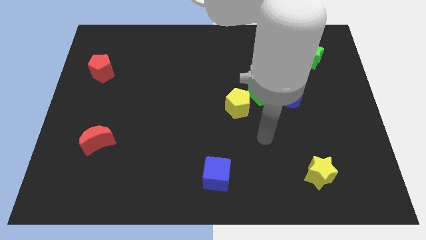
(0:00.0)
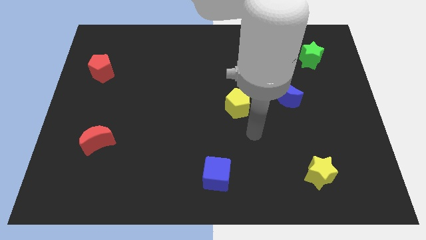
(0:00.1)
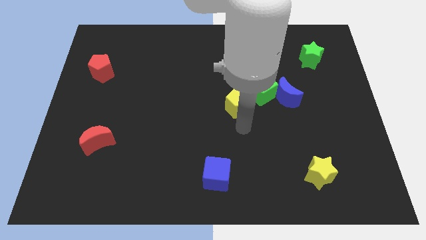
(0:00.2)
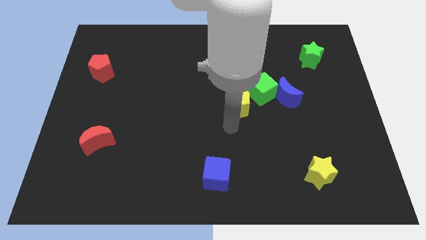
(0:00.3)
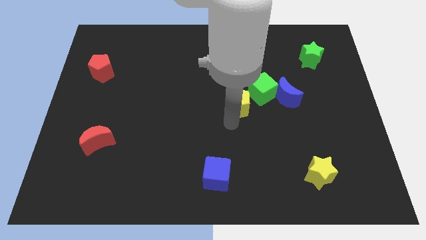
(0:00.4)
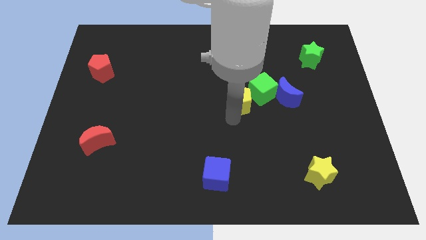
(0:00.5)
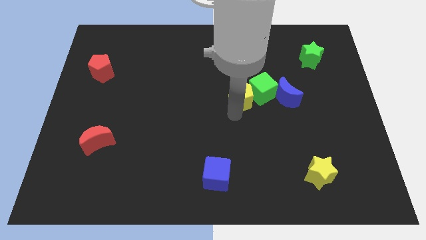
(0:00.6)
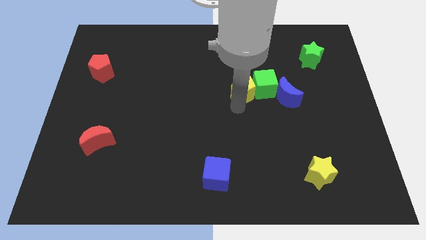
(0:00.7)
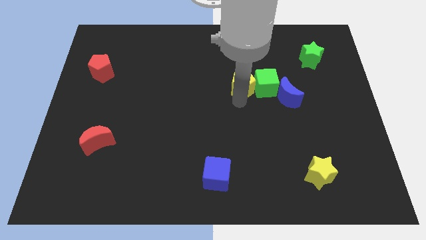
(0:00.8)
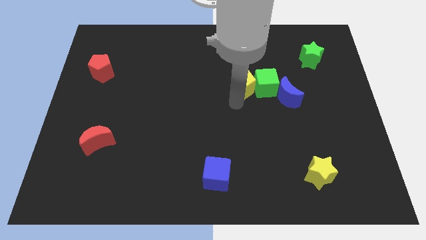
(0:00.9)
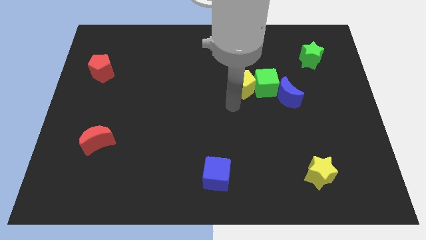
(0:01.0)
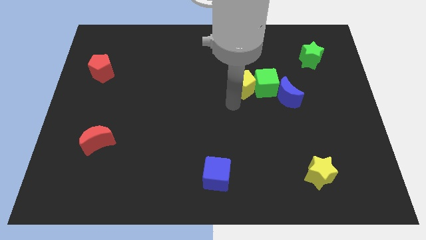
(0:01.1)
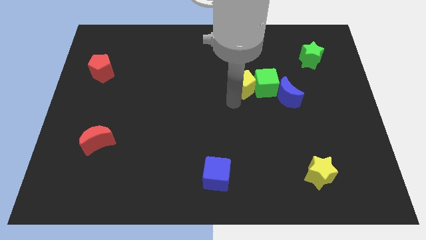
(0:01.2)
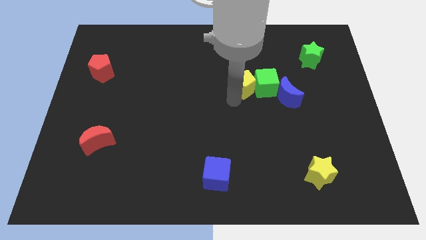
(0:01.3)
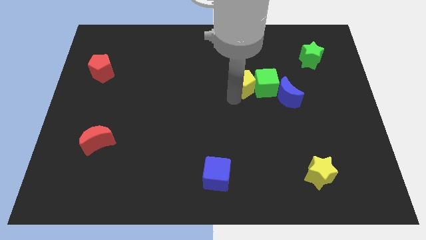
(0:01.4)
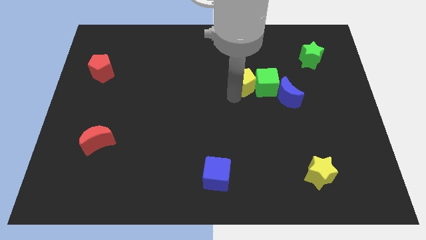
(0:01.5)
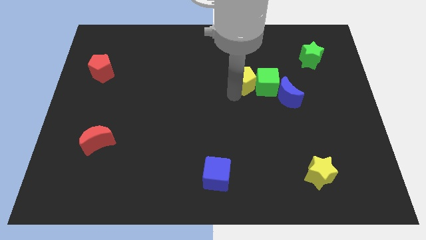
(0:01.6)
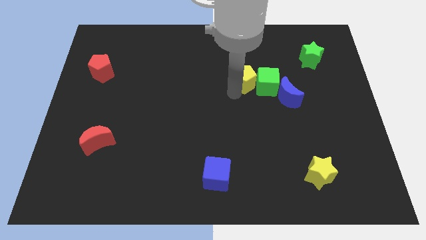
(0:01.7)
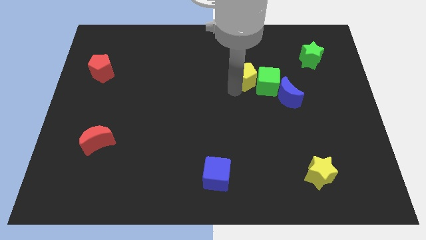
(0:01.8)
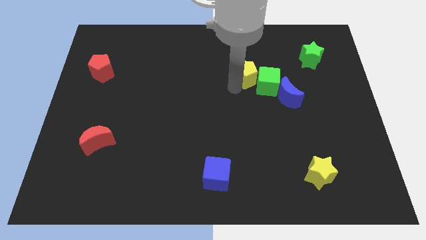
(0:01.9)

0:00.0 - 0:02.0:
push the yellow pentagon a little bit upwards and right

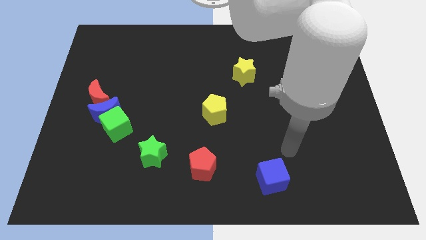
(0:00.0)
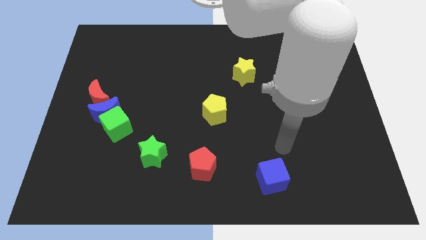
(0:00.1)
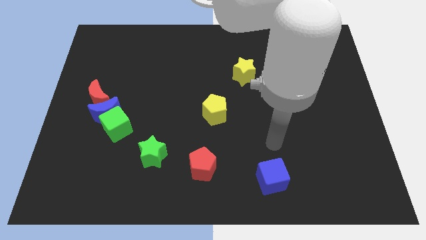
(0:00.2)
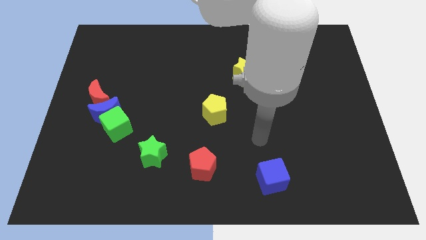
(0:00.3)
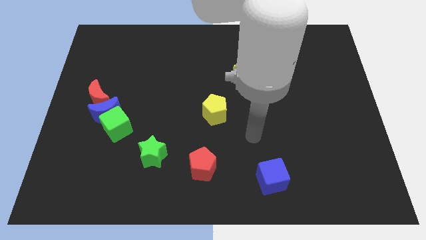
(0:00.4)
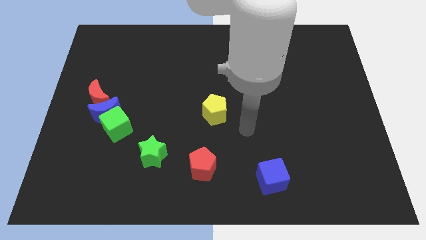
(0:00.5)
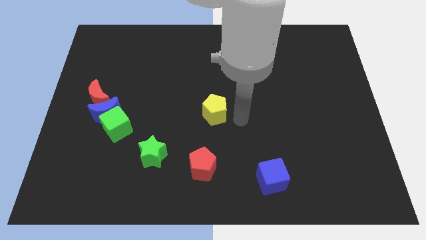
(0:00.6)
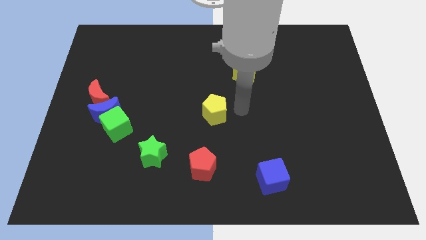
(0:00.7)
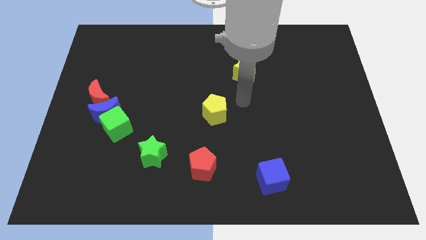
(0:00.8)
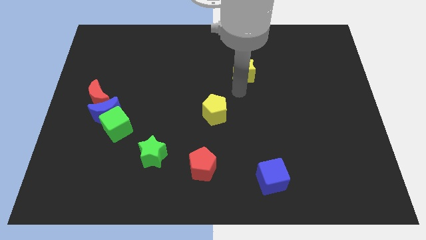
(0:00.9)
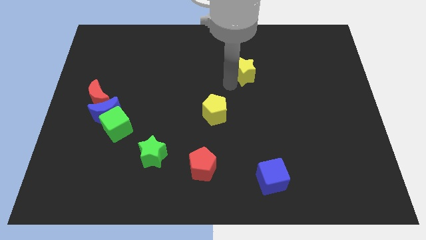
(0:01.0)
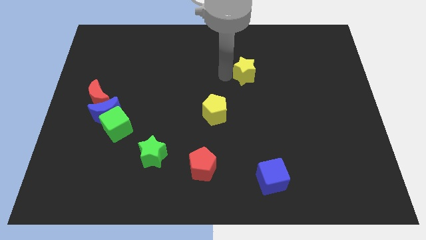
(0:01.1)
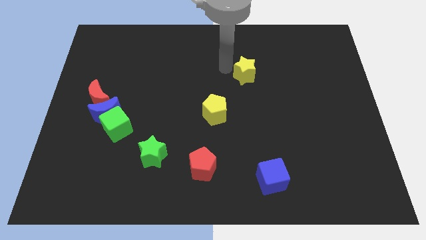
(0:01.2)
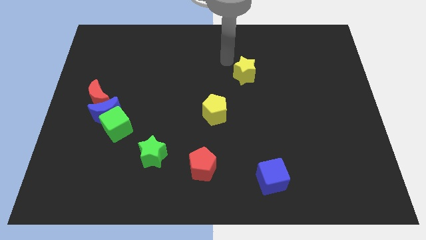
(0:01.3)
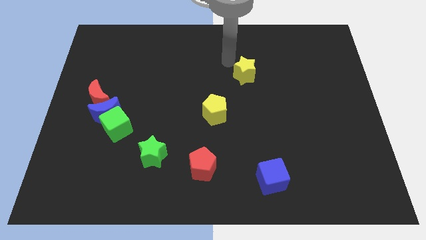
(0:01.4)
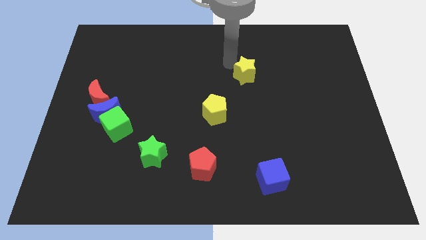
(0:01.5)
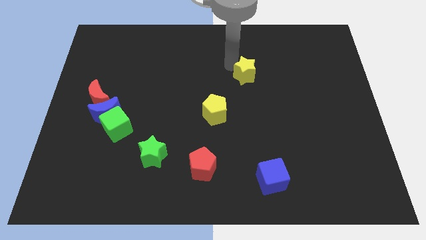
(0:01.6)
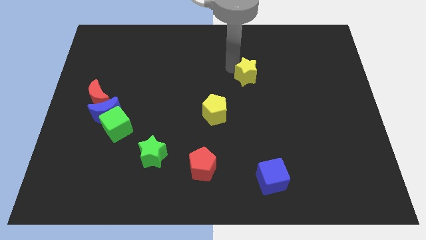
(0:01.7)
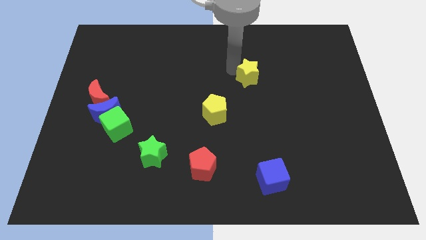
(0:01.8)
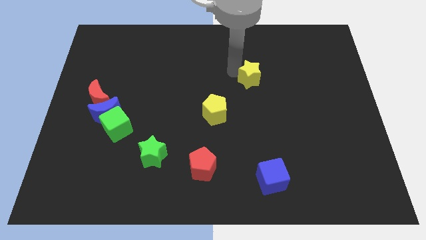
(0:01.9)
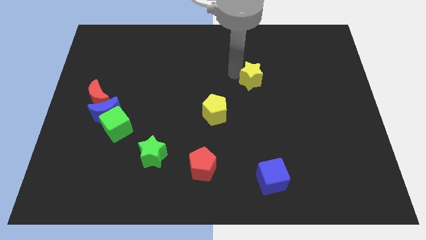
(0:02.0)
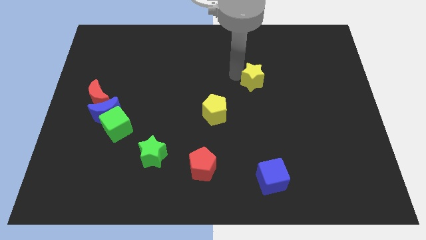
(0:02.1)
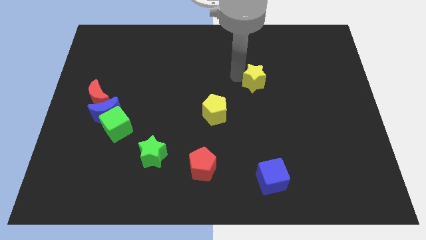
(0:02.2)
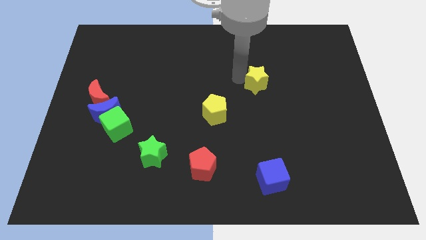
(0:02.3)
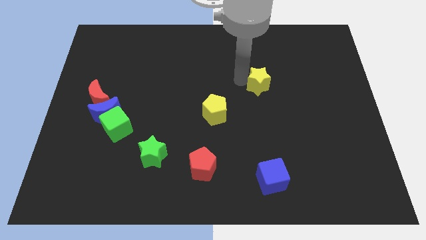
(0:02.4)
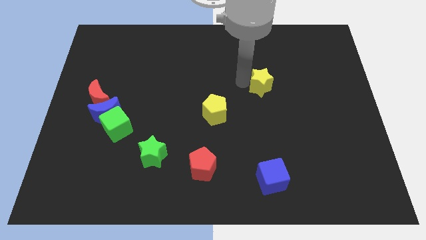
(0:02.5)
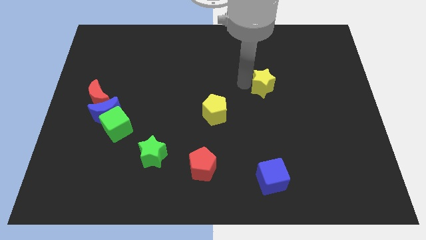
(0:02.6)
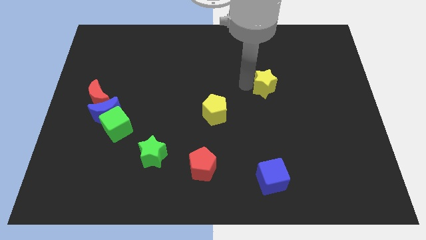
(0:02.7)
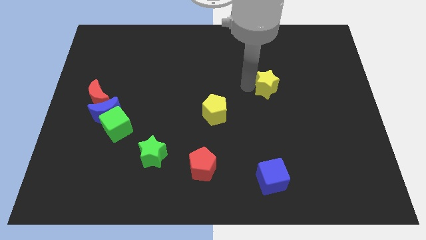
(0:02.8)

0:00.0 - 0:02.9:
slightly push the yellow star down and then to the right

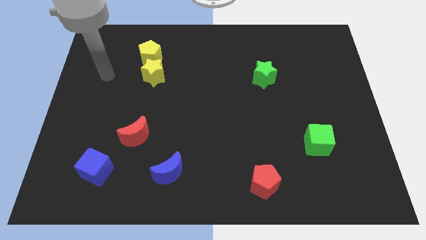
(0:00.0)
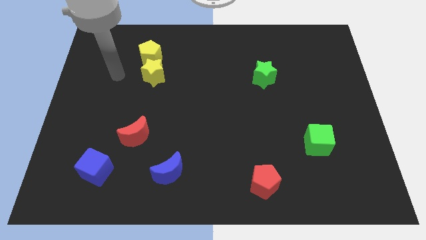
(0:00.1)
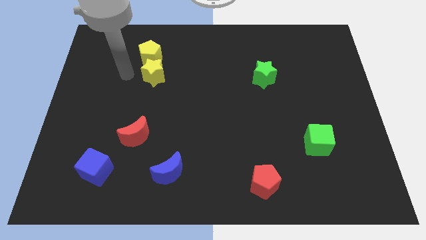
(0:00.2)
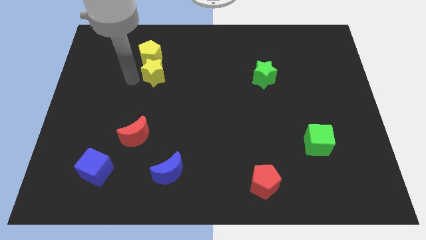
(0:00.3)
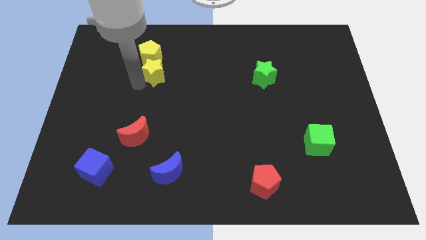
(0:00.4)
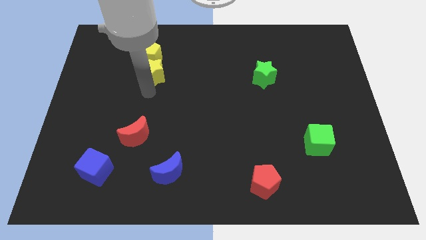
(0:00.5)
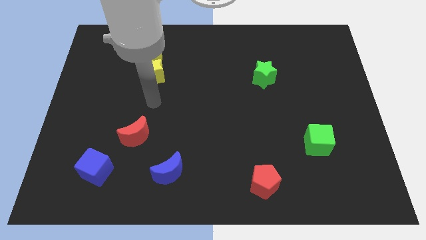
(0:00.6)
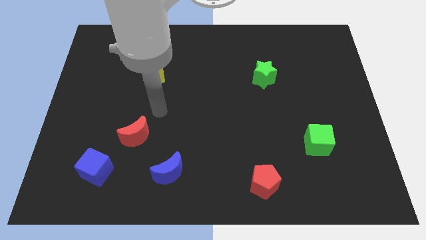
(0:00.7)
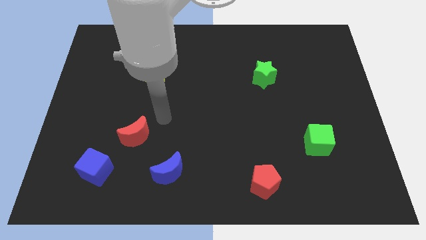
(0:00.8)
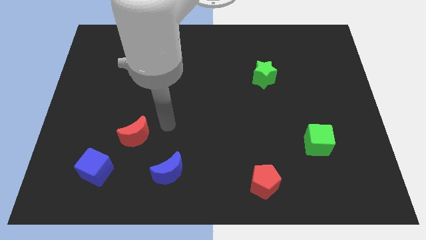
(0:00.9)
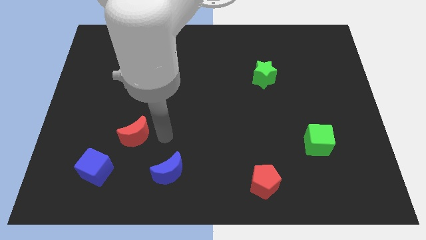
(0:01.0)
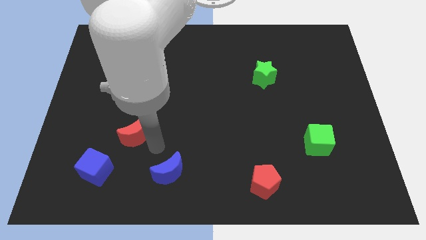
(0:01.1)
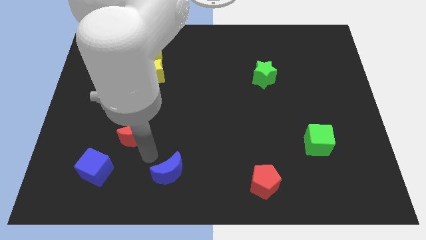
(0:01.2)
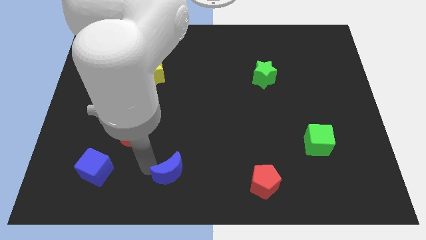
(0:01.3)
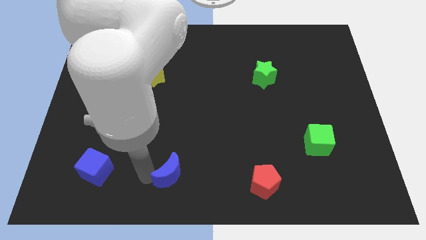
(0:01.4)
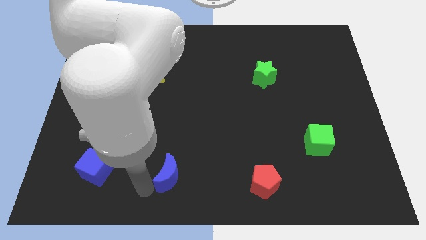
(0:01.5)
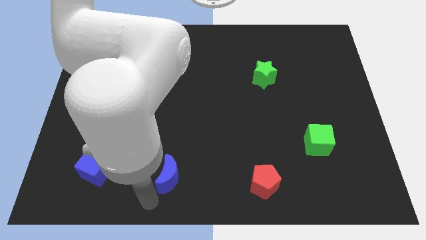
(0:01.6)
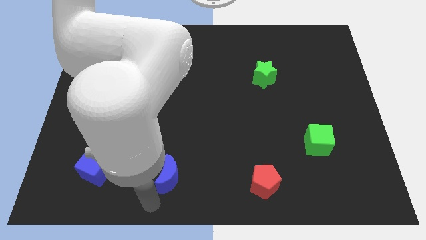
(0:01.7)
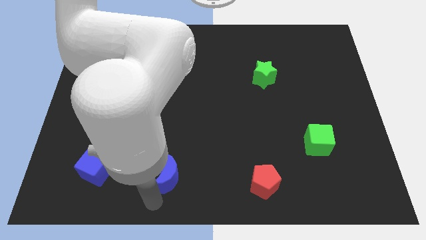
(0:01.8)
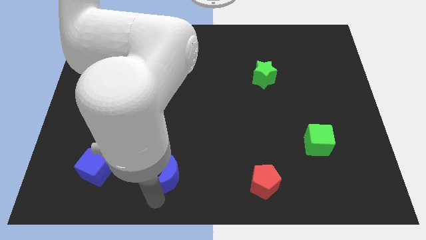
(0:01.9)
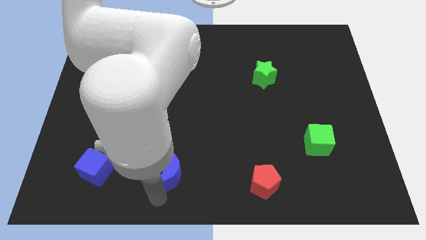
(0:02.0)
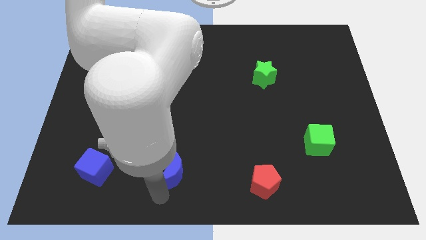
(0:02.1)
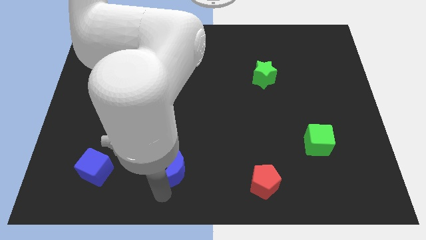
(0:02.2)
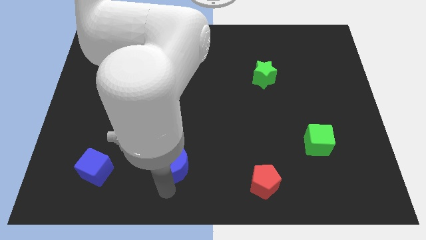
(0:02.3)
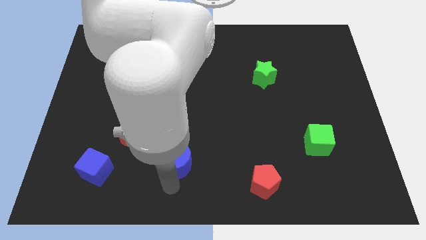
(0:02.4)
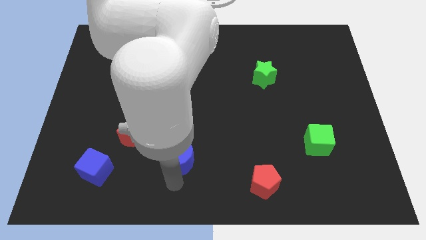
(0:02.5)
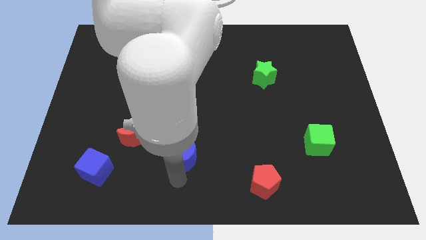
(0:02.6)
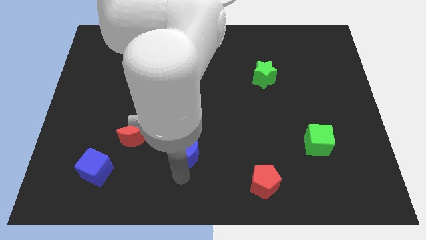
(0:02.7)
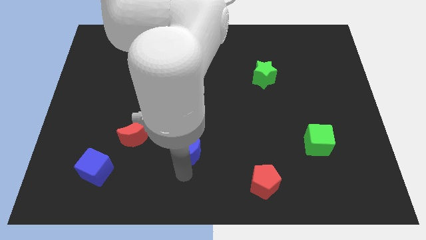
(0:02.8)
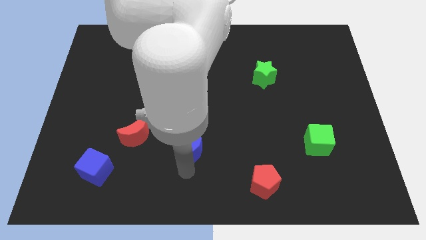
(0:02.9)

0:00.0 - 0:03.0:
slightly move the blue moon upwards and to the right

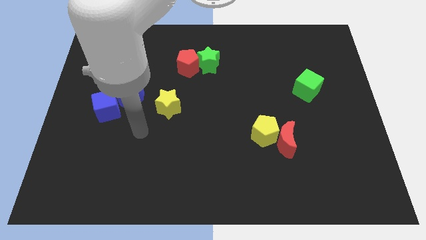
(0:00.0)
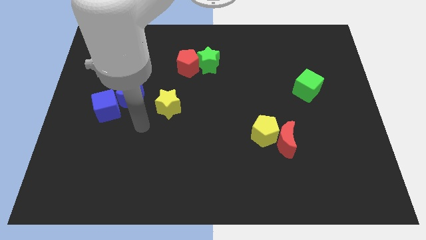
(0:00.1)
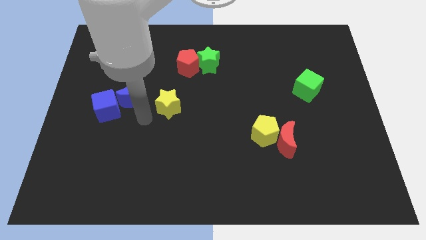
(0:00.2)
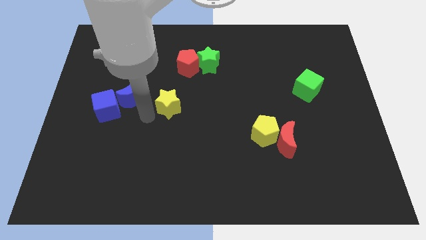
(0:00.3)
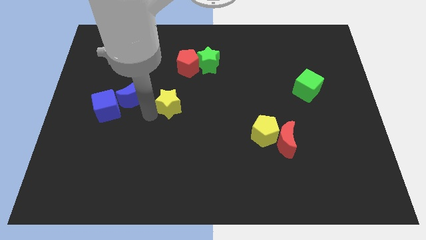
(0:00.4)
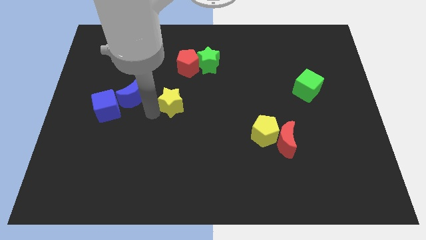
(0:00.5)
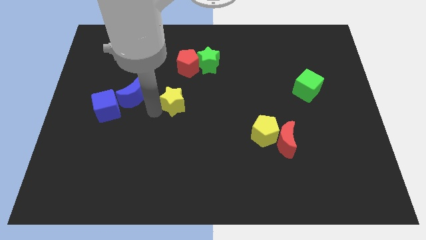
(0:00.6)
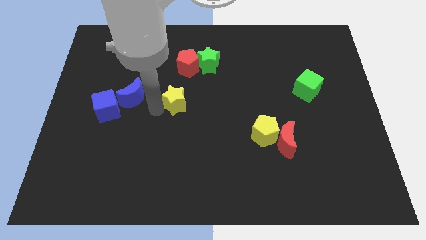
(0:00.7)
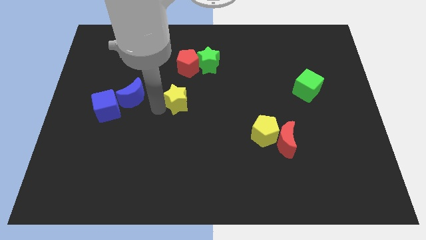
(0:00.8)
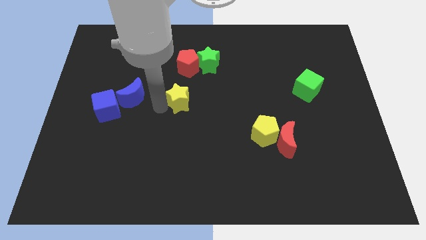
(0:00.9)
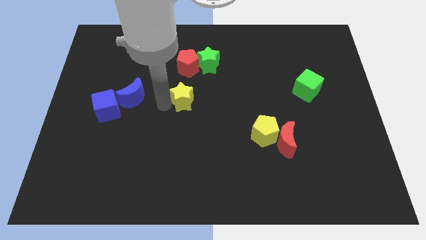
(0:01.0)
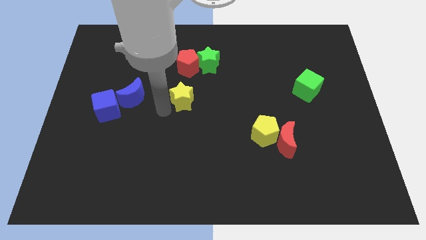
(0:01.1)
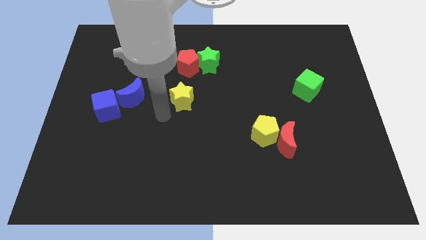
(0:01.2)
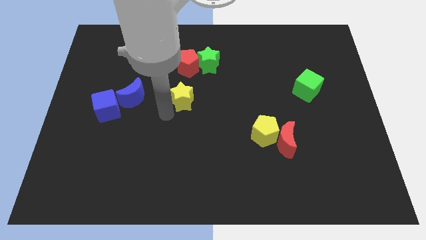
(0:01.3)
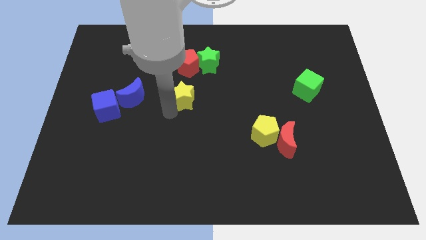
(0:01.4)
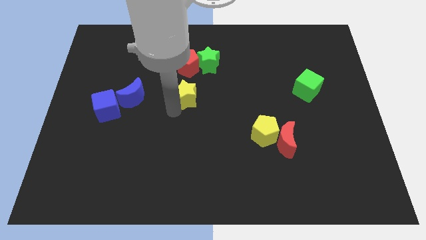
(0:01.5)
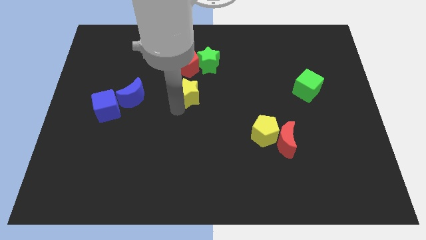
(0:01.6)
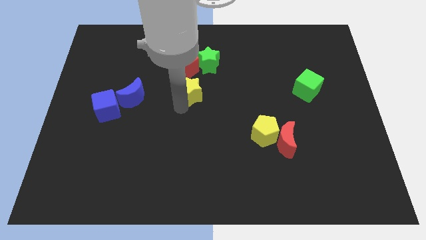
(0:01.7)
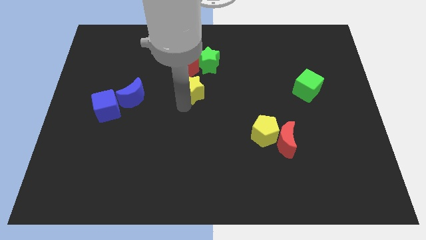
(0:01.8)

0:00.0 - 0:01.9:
slightly move the yellow star diagonally up and right
